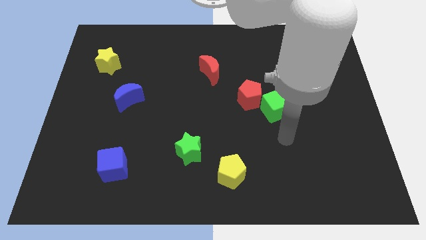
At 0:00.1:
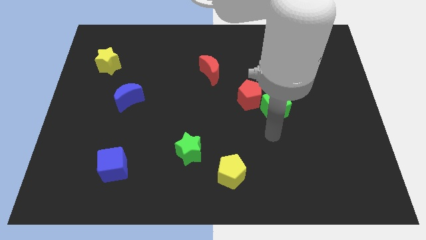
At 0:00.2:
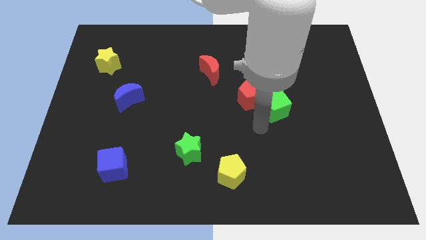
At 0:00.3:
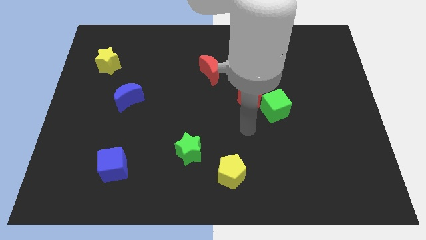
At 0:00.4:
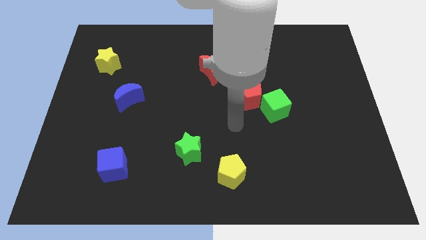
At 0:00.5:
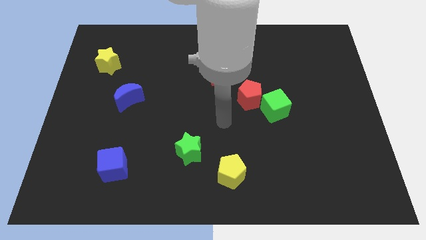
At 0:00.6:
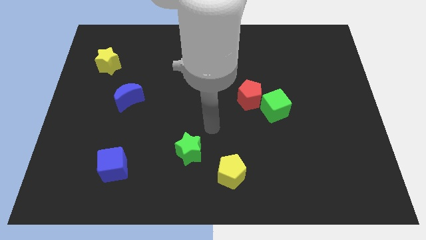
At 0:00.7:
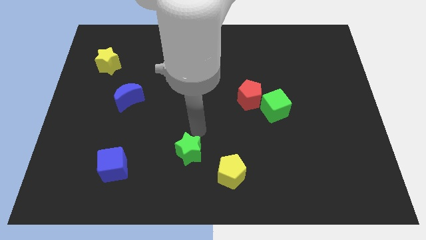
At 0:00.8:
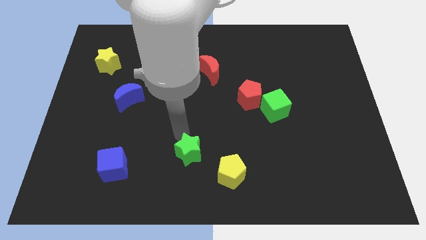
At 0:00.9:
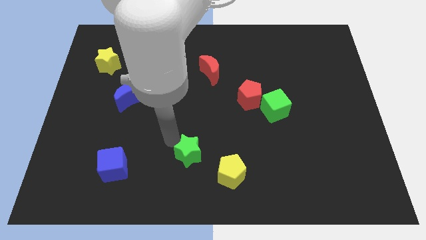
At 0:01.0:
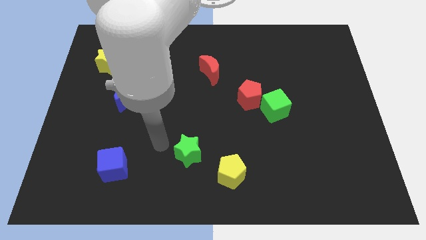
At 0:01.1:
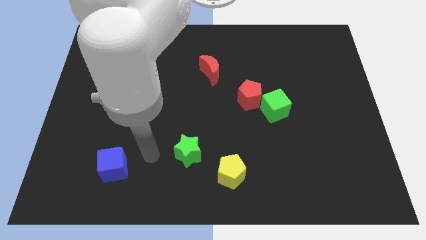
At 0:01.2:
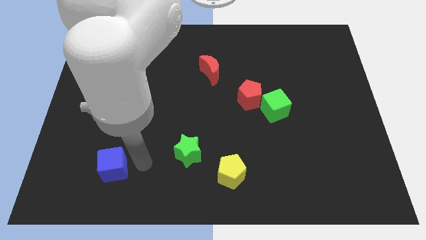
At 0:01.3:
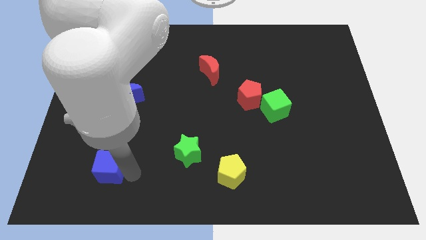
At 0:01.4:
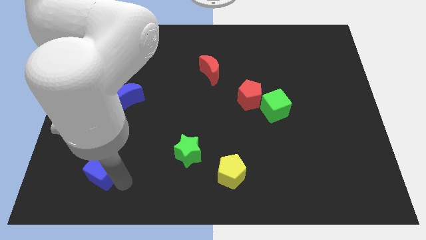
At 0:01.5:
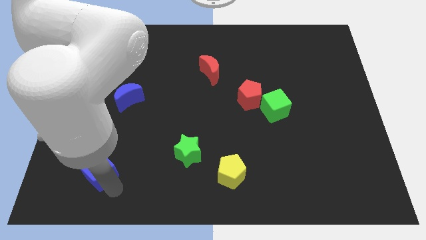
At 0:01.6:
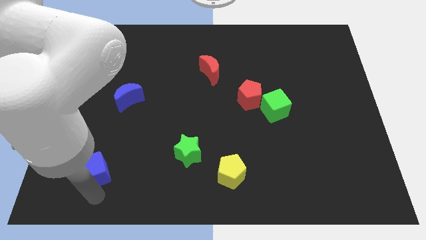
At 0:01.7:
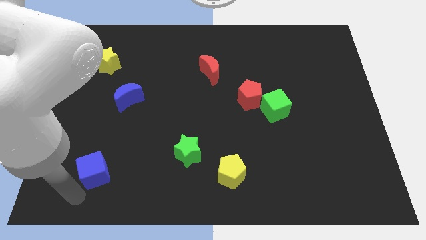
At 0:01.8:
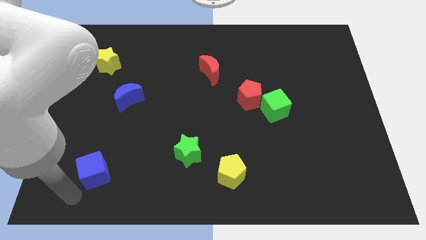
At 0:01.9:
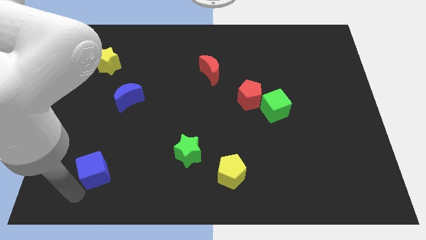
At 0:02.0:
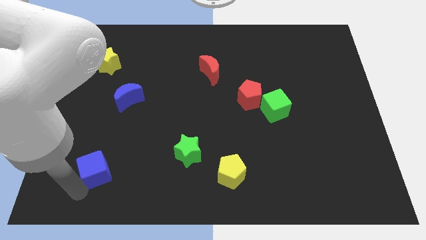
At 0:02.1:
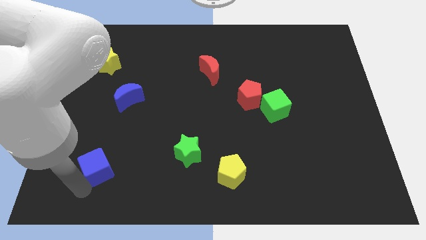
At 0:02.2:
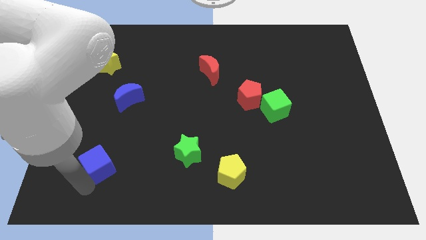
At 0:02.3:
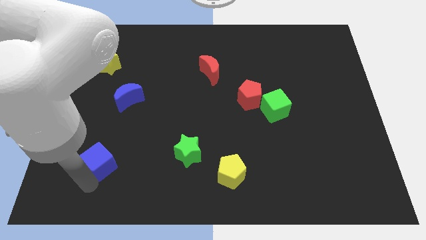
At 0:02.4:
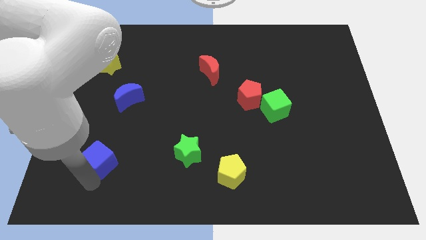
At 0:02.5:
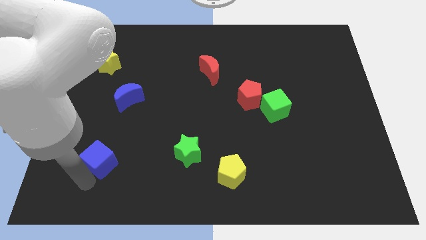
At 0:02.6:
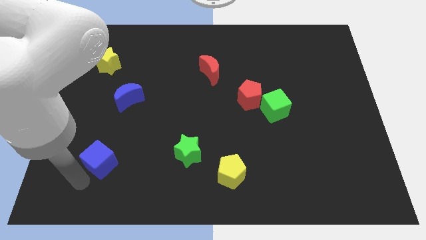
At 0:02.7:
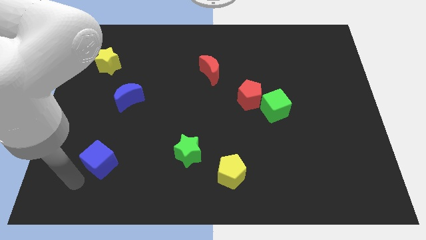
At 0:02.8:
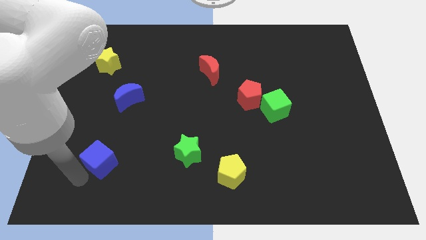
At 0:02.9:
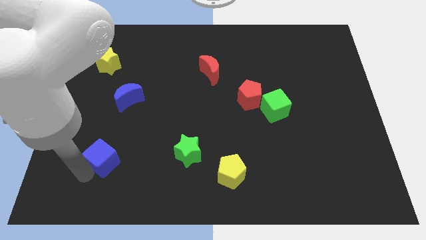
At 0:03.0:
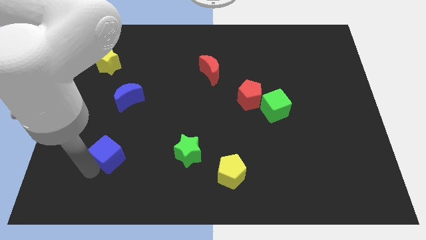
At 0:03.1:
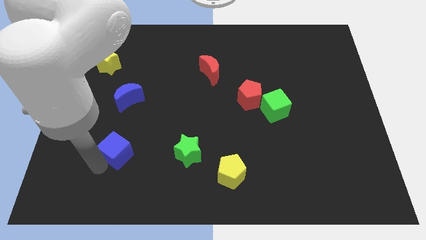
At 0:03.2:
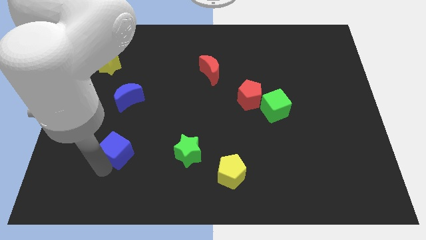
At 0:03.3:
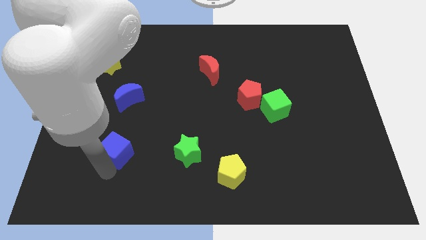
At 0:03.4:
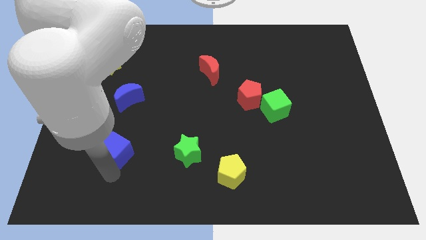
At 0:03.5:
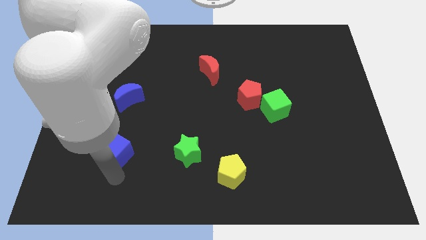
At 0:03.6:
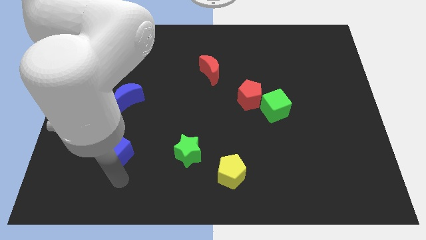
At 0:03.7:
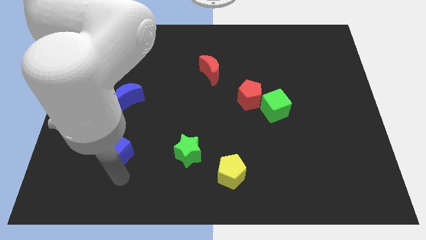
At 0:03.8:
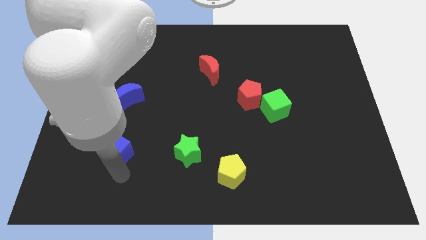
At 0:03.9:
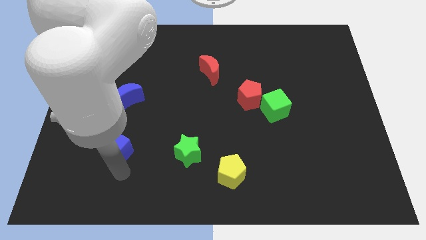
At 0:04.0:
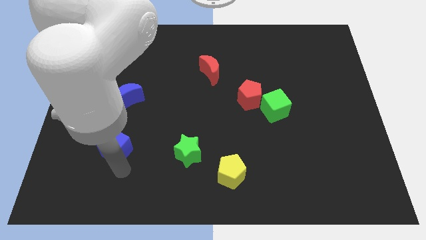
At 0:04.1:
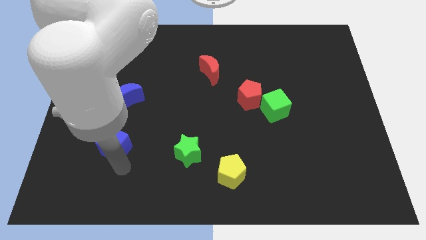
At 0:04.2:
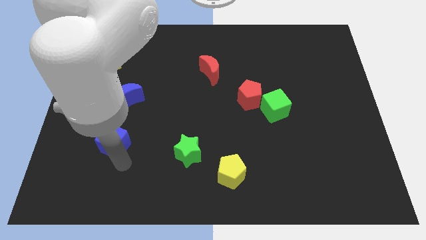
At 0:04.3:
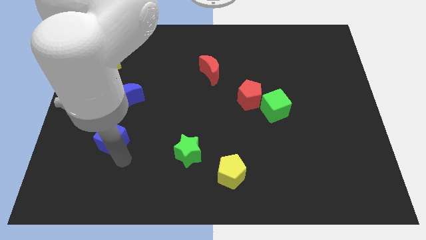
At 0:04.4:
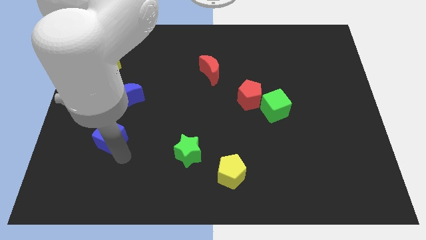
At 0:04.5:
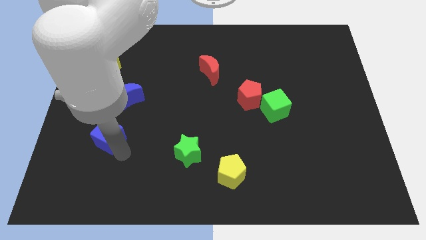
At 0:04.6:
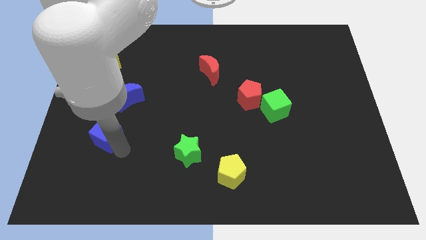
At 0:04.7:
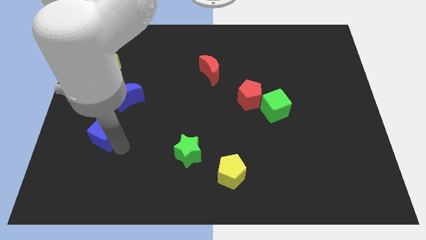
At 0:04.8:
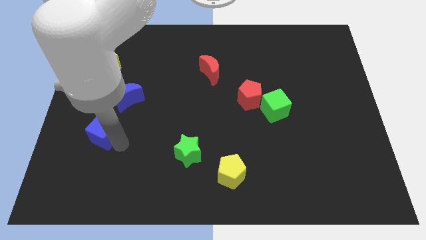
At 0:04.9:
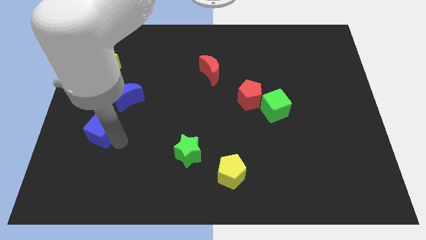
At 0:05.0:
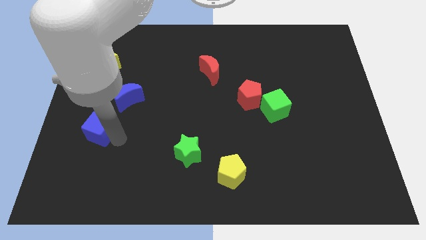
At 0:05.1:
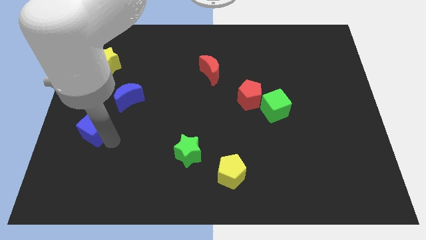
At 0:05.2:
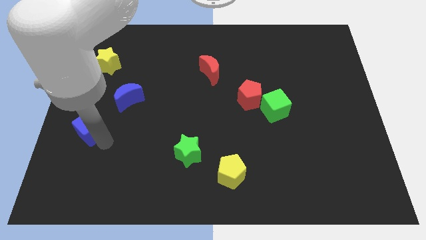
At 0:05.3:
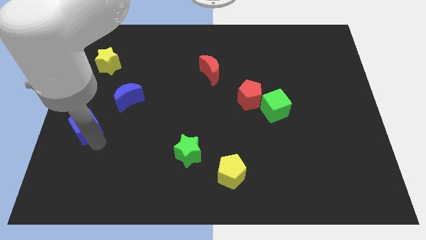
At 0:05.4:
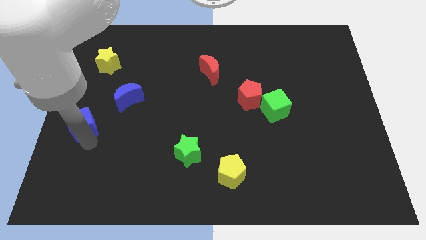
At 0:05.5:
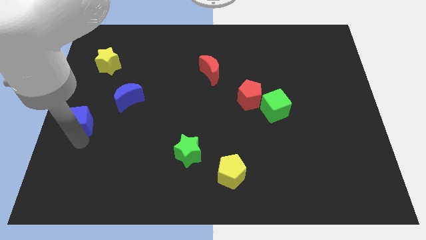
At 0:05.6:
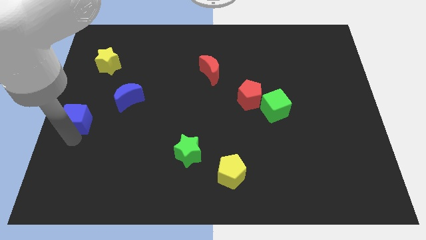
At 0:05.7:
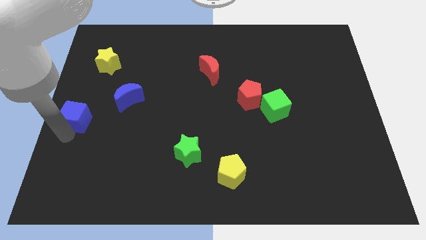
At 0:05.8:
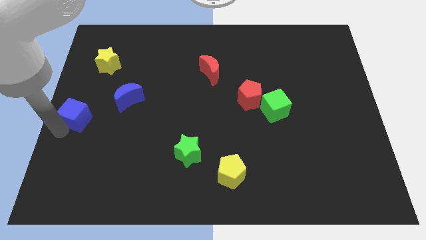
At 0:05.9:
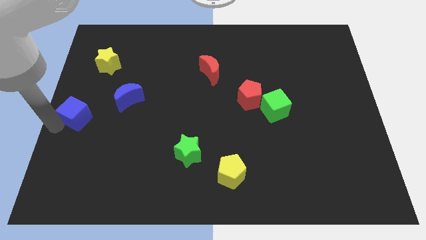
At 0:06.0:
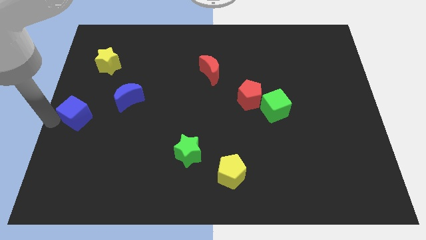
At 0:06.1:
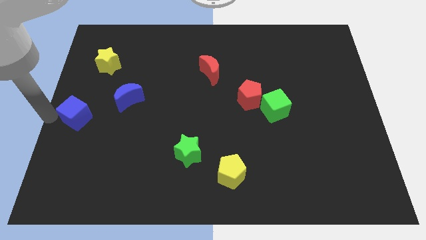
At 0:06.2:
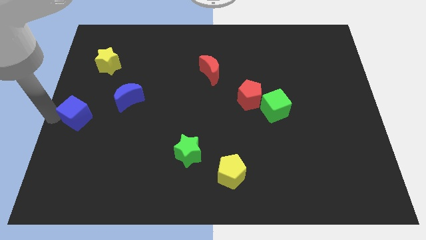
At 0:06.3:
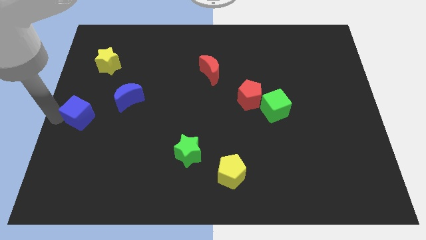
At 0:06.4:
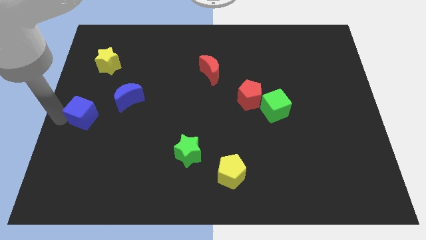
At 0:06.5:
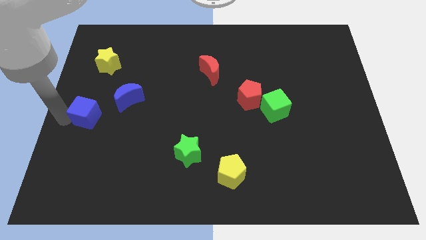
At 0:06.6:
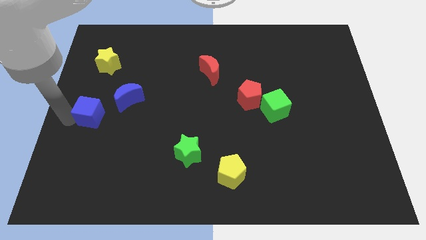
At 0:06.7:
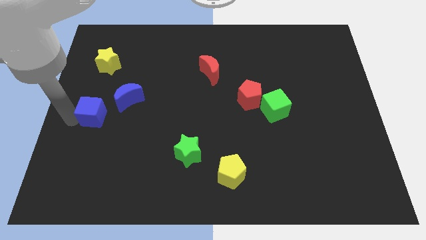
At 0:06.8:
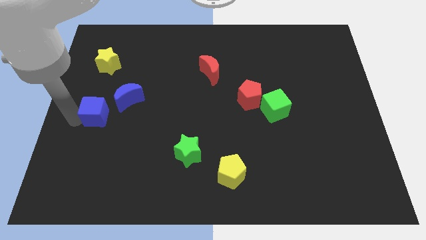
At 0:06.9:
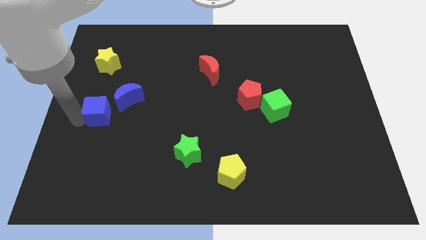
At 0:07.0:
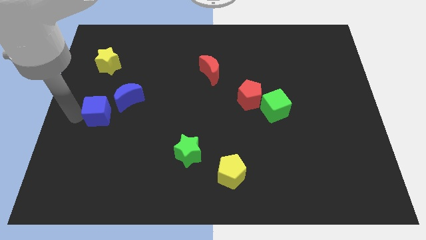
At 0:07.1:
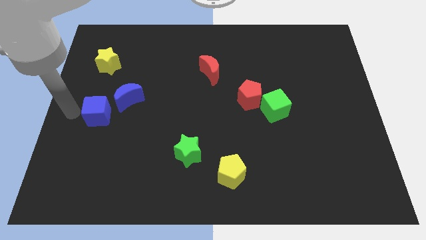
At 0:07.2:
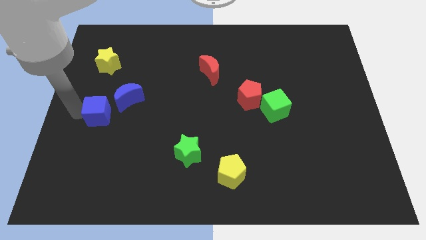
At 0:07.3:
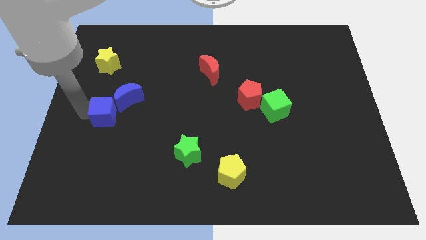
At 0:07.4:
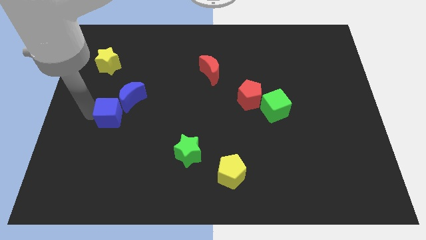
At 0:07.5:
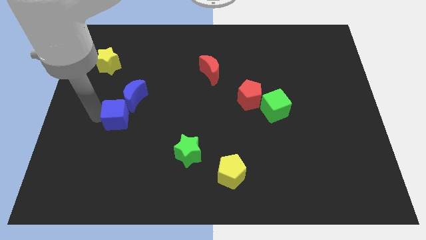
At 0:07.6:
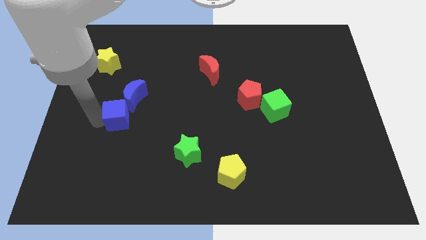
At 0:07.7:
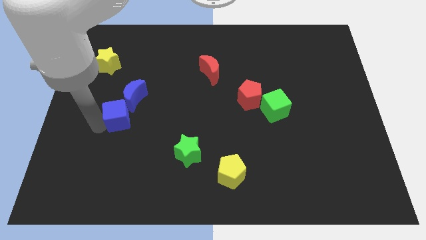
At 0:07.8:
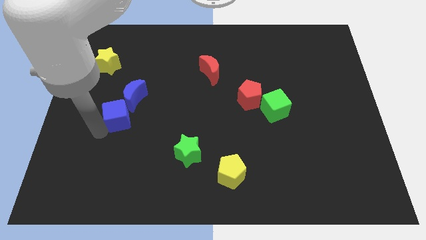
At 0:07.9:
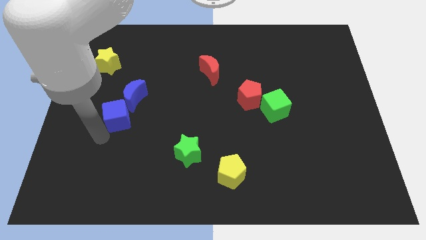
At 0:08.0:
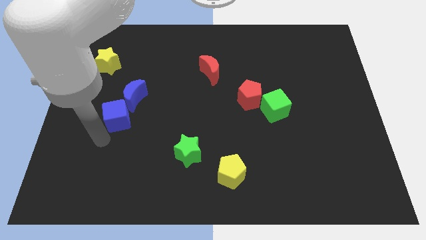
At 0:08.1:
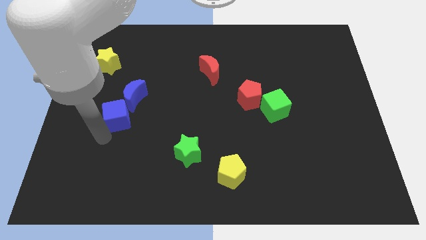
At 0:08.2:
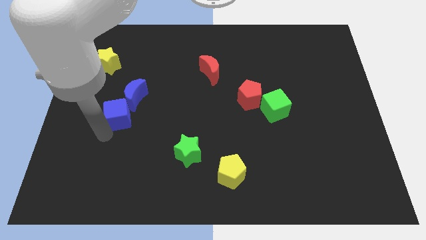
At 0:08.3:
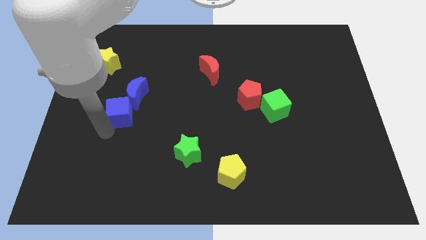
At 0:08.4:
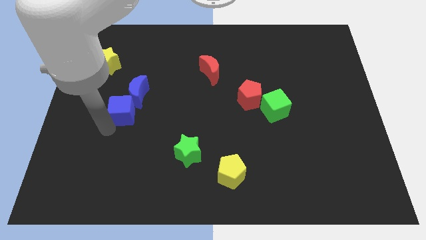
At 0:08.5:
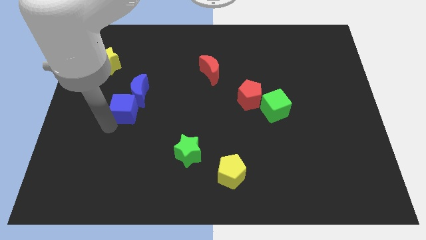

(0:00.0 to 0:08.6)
push the blue cube towards the blue moon
